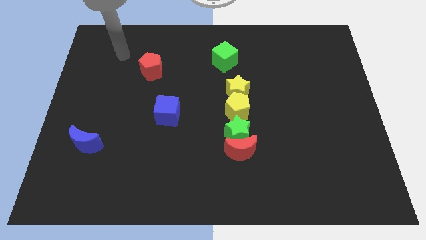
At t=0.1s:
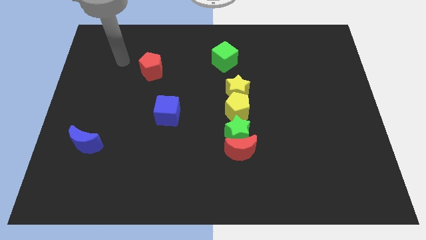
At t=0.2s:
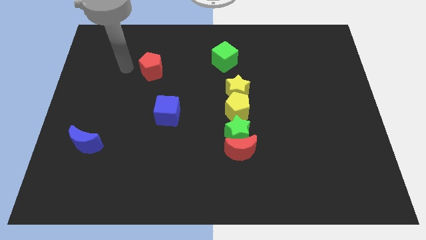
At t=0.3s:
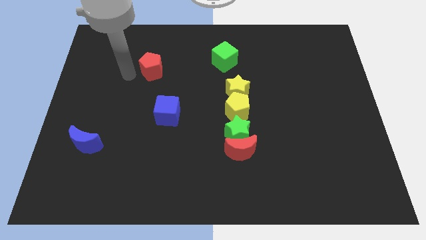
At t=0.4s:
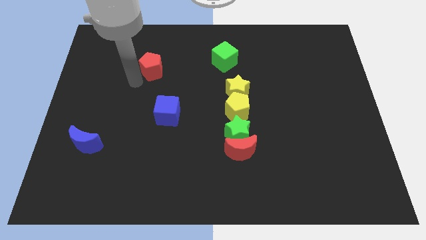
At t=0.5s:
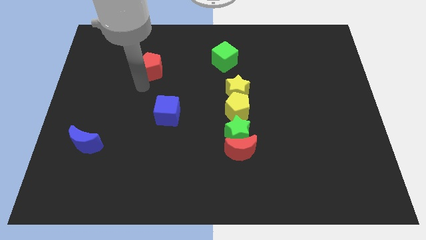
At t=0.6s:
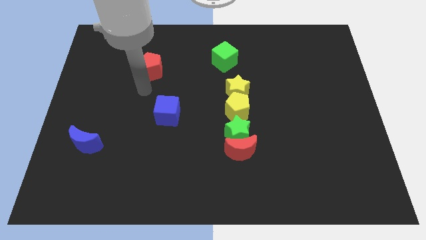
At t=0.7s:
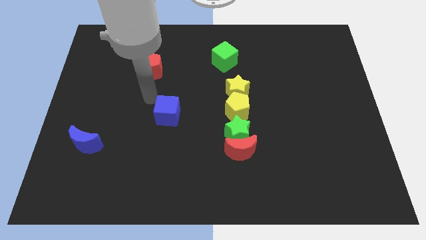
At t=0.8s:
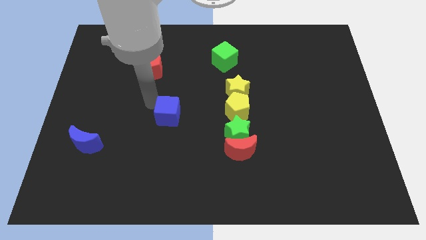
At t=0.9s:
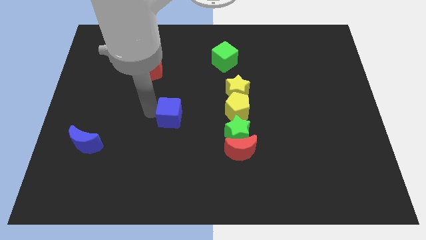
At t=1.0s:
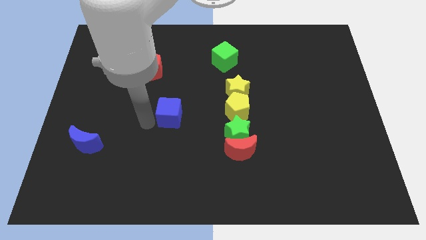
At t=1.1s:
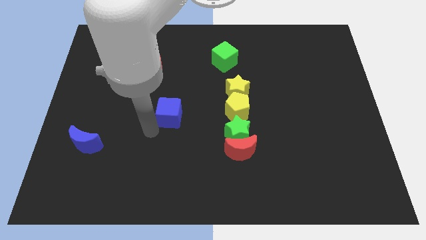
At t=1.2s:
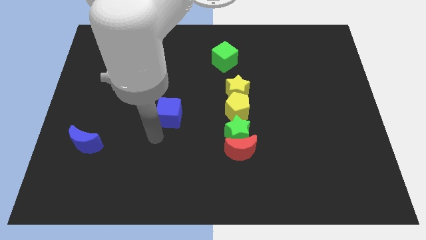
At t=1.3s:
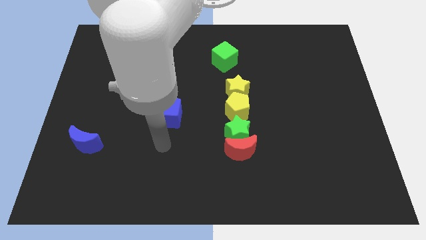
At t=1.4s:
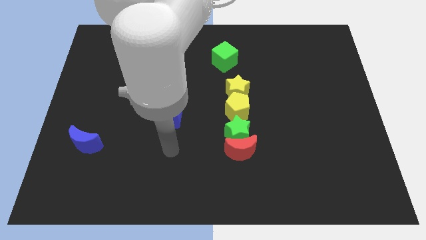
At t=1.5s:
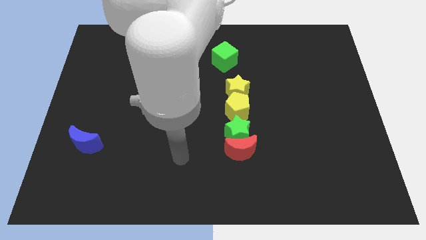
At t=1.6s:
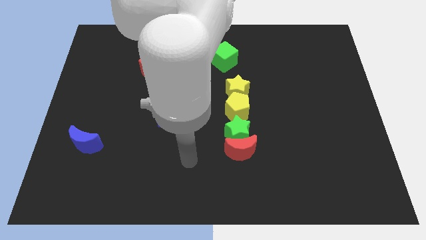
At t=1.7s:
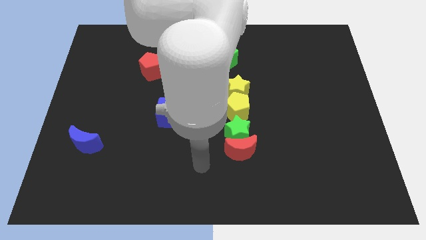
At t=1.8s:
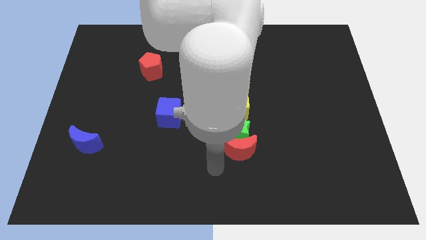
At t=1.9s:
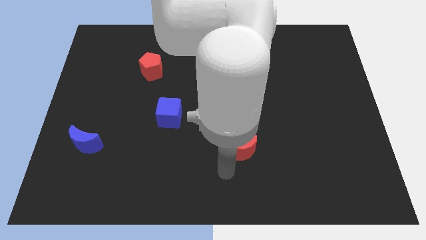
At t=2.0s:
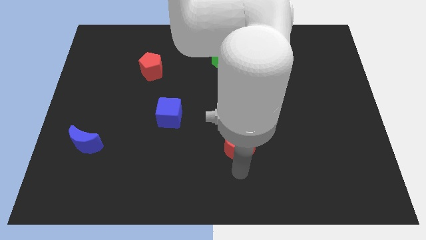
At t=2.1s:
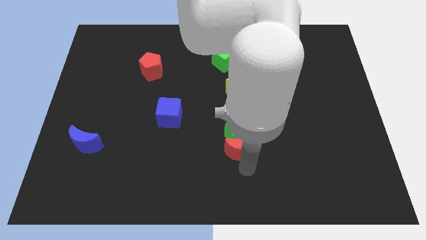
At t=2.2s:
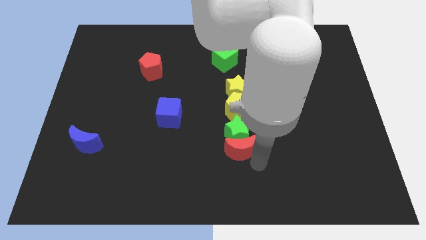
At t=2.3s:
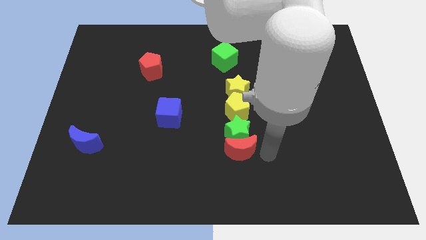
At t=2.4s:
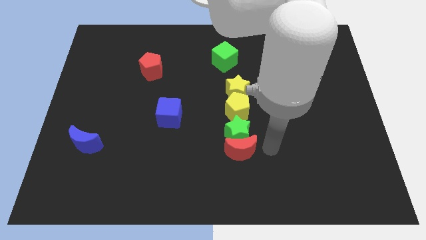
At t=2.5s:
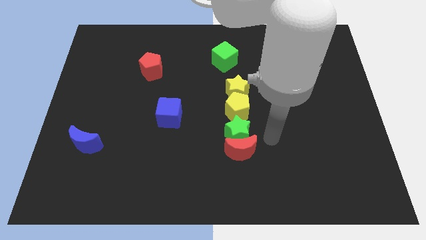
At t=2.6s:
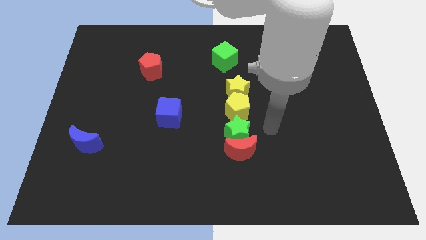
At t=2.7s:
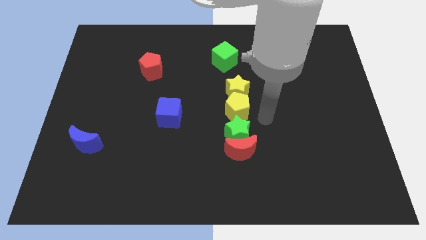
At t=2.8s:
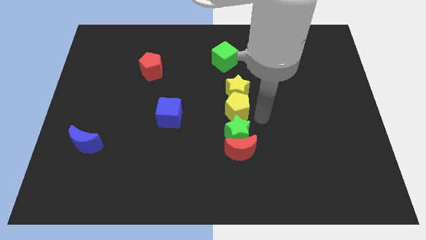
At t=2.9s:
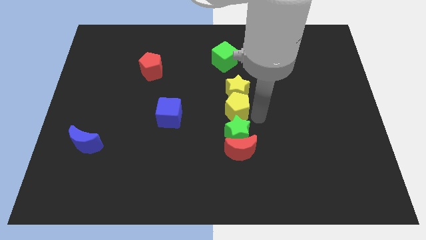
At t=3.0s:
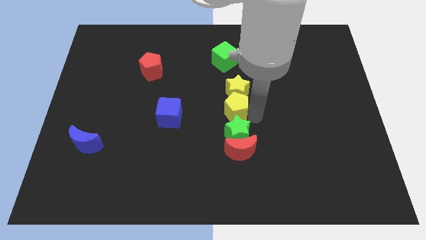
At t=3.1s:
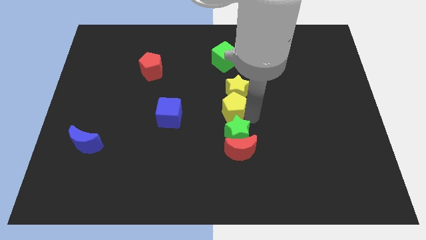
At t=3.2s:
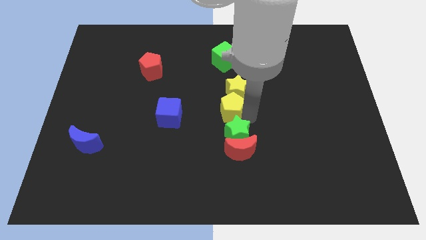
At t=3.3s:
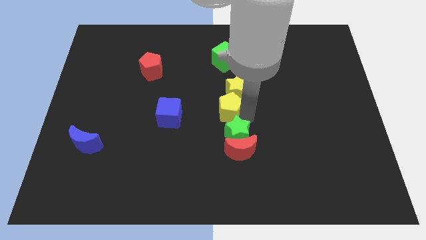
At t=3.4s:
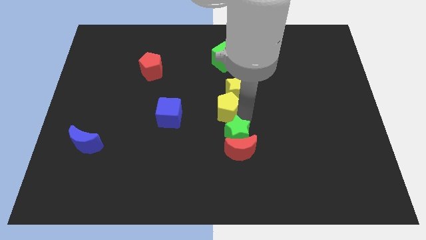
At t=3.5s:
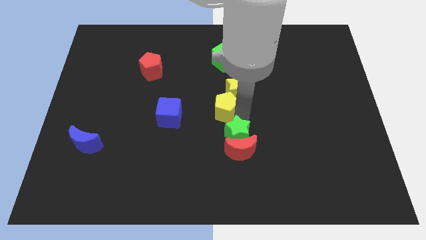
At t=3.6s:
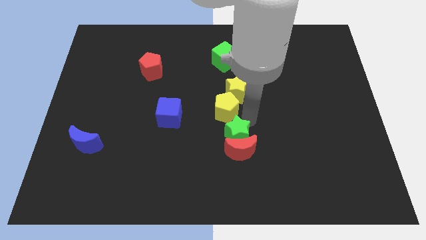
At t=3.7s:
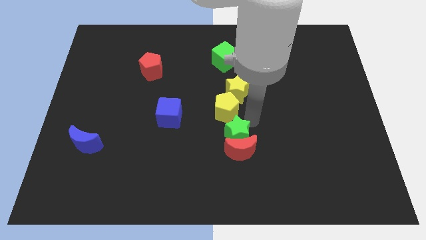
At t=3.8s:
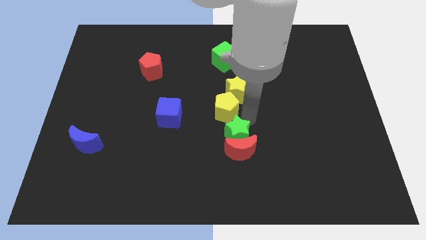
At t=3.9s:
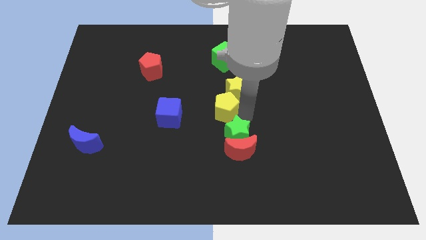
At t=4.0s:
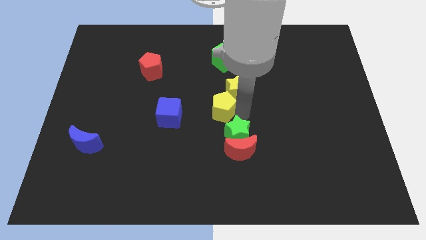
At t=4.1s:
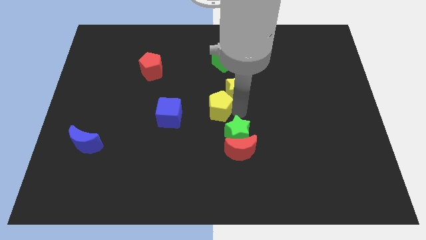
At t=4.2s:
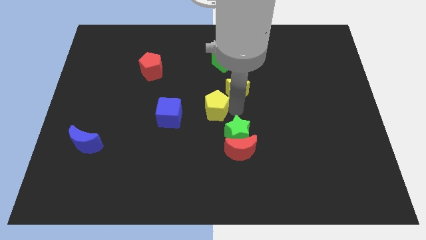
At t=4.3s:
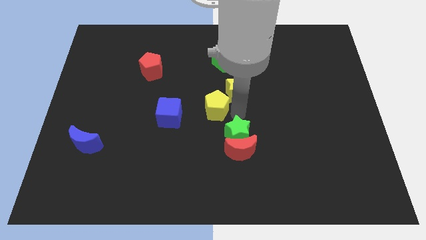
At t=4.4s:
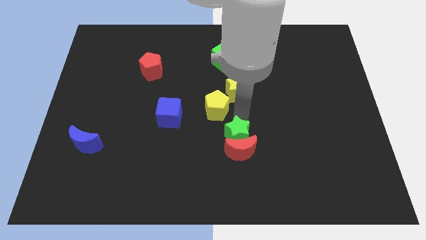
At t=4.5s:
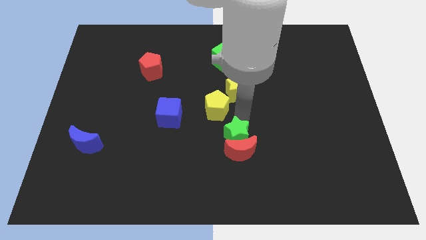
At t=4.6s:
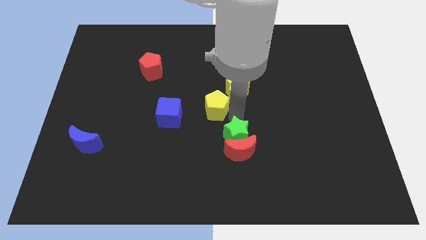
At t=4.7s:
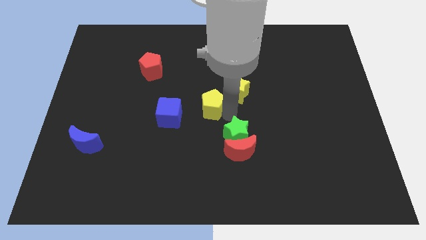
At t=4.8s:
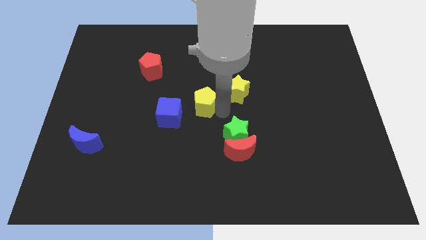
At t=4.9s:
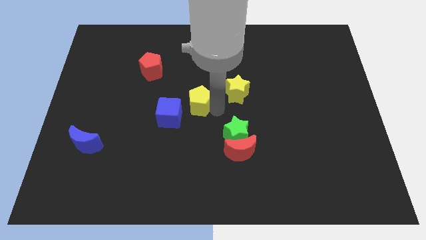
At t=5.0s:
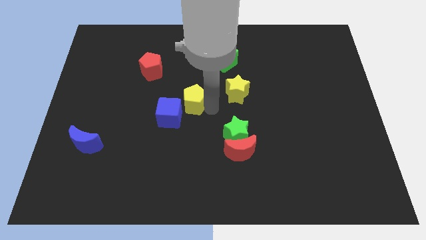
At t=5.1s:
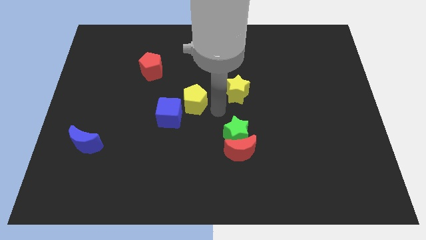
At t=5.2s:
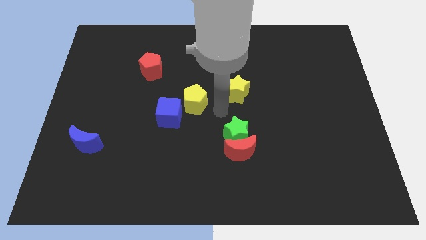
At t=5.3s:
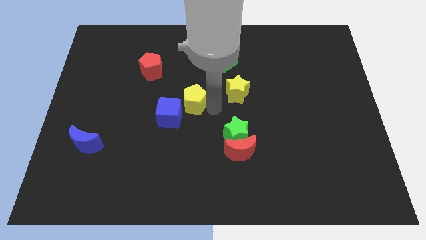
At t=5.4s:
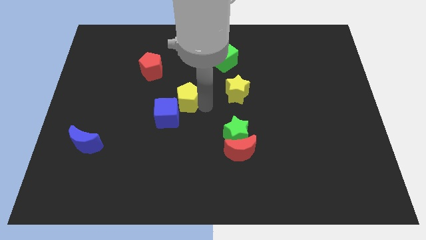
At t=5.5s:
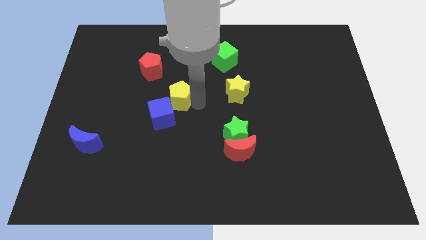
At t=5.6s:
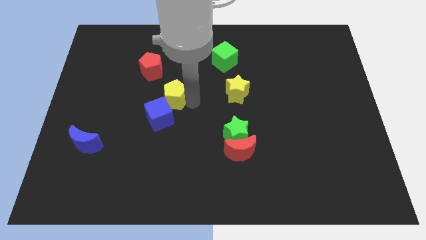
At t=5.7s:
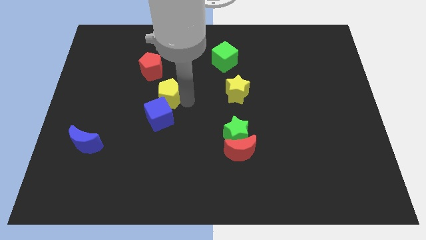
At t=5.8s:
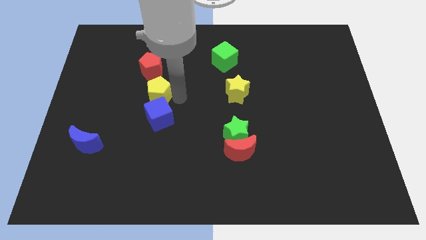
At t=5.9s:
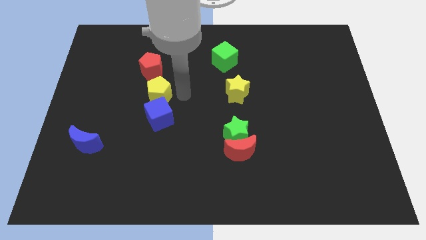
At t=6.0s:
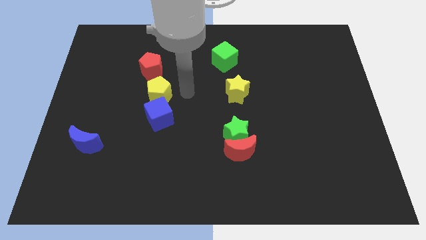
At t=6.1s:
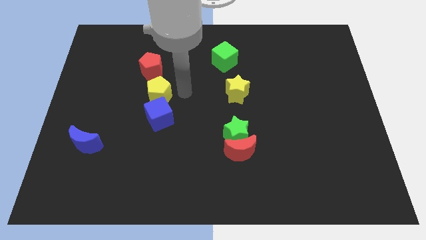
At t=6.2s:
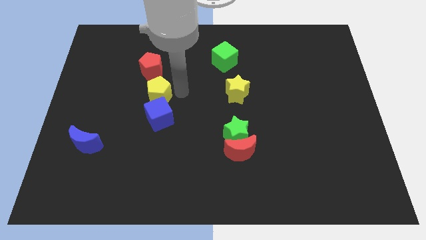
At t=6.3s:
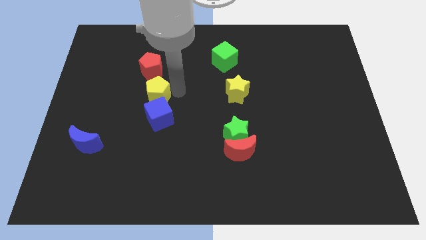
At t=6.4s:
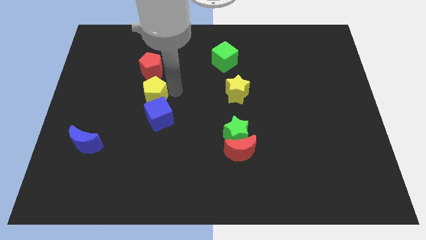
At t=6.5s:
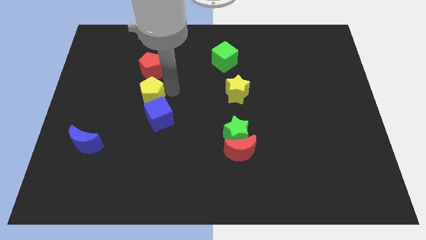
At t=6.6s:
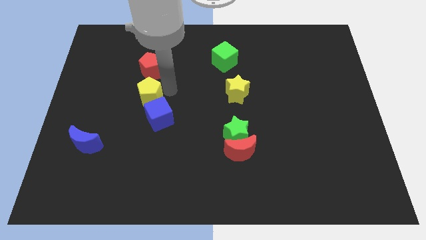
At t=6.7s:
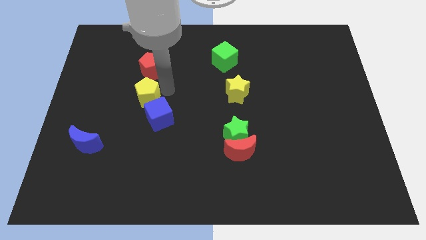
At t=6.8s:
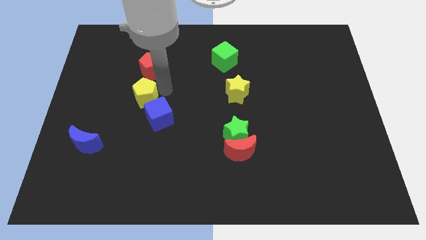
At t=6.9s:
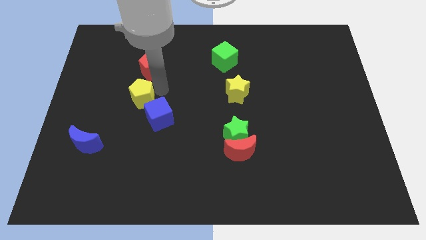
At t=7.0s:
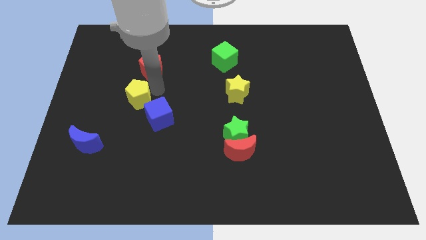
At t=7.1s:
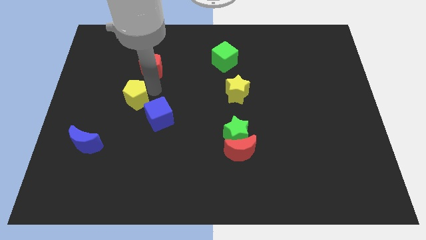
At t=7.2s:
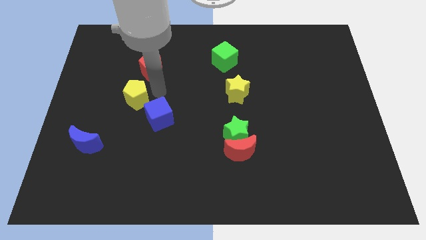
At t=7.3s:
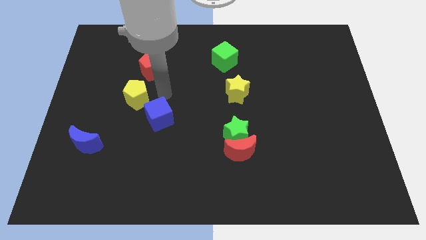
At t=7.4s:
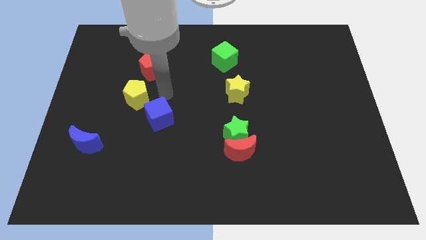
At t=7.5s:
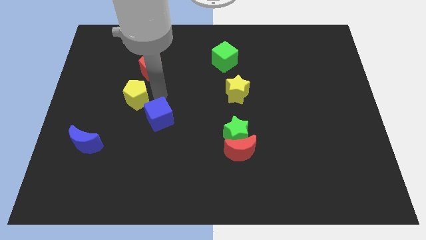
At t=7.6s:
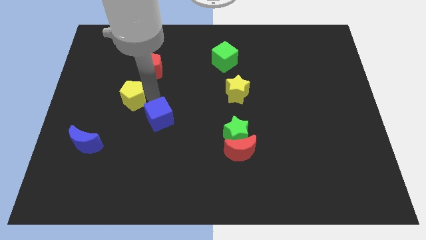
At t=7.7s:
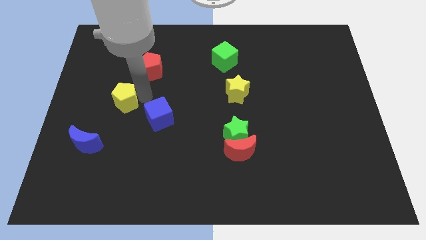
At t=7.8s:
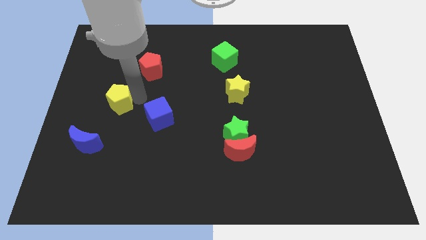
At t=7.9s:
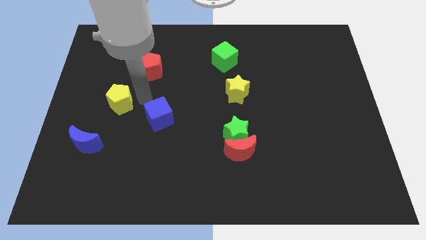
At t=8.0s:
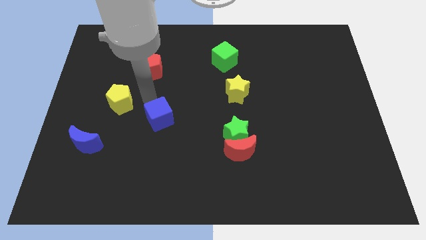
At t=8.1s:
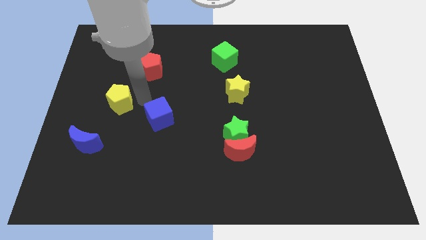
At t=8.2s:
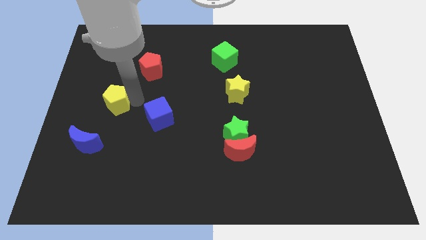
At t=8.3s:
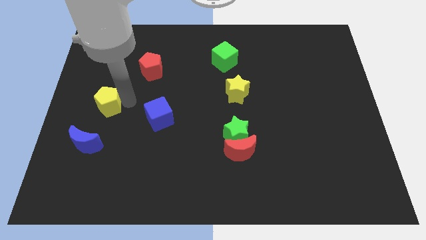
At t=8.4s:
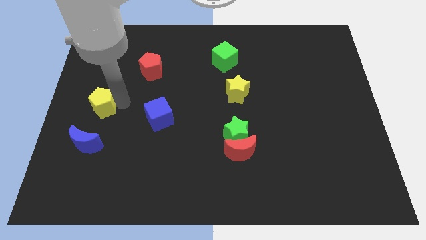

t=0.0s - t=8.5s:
move the yellow pentagon to the left side of the board
